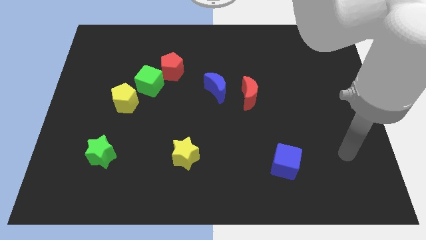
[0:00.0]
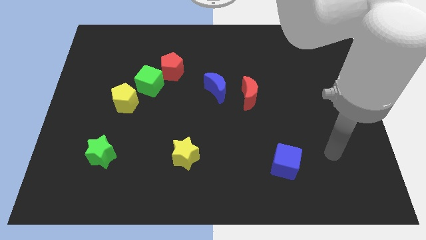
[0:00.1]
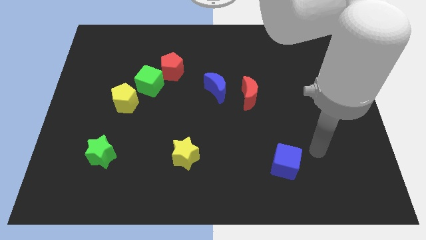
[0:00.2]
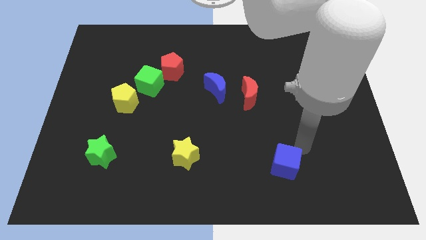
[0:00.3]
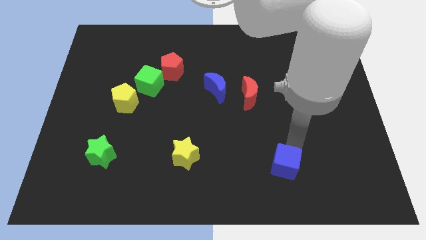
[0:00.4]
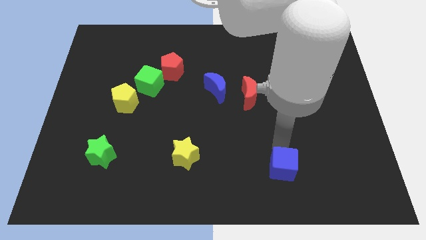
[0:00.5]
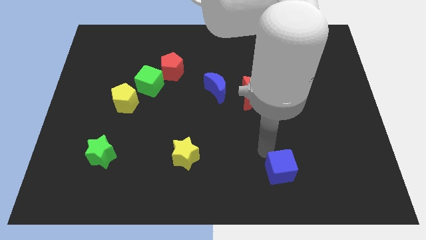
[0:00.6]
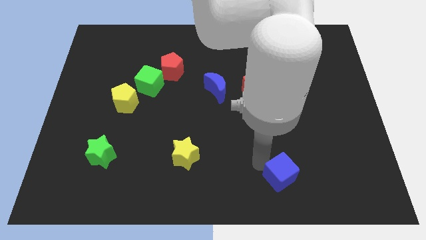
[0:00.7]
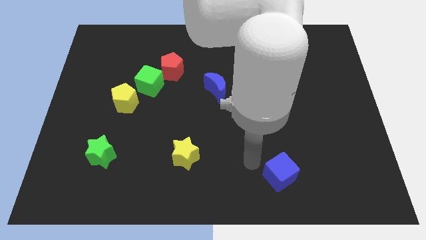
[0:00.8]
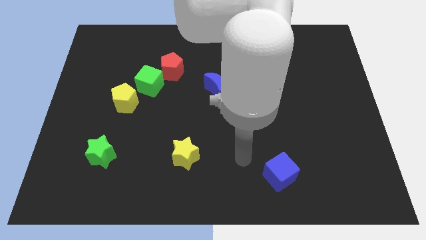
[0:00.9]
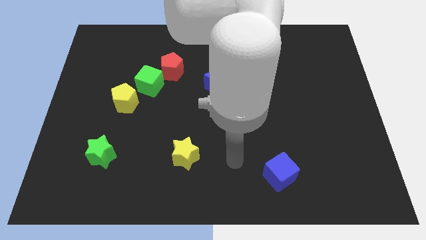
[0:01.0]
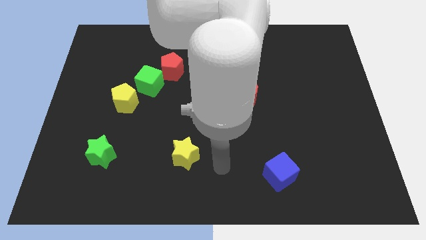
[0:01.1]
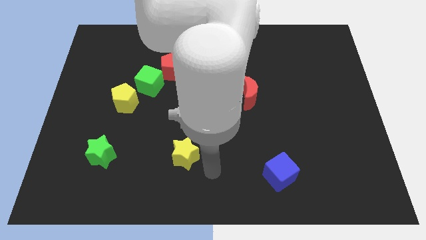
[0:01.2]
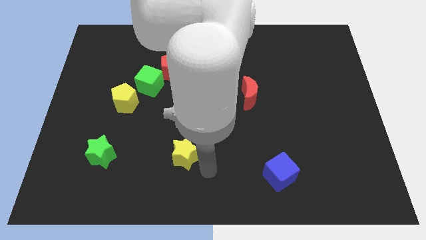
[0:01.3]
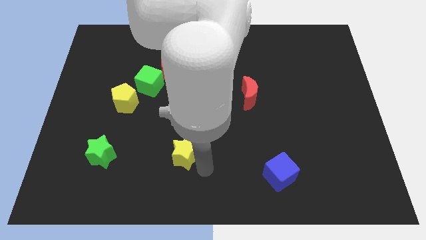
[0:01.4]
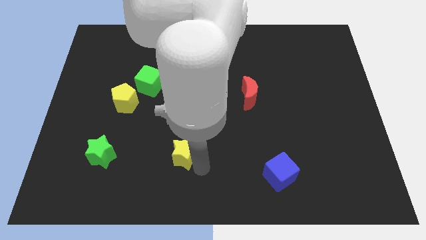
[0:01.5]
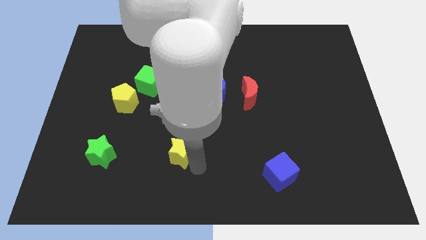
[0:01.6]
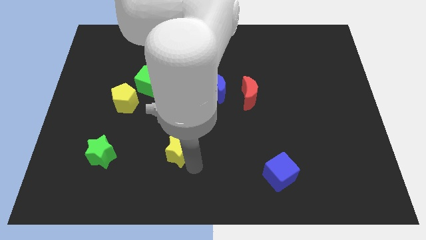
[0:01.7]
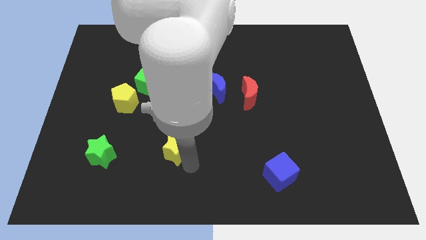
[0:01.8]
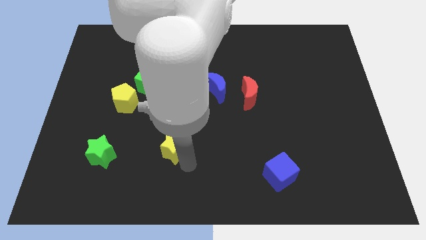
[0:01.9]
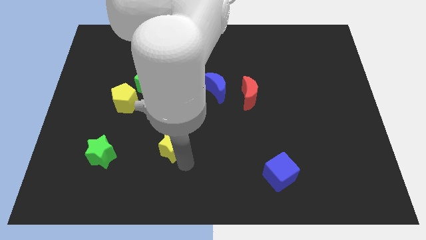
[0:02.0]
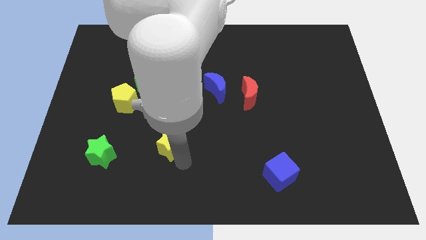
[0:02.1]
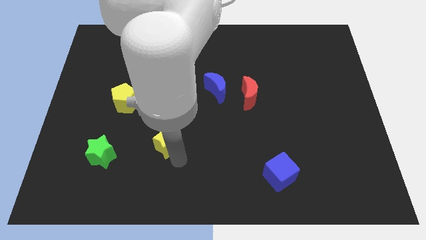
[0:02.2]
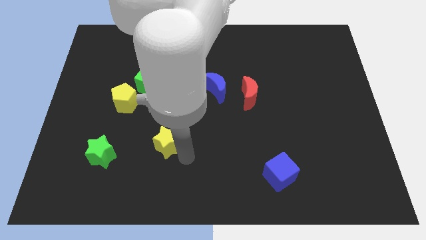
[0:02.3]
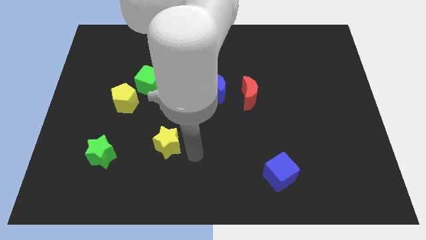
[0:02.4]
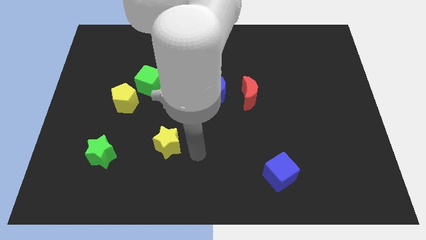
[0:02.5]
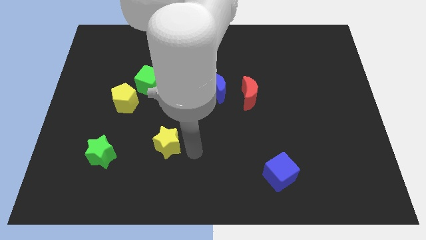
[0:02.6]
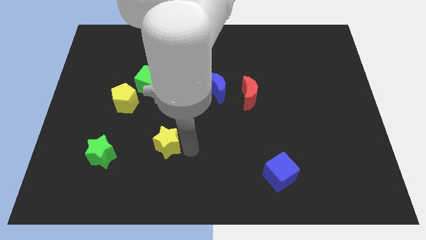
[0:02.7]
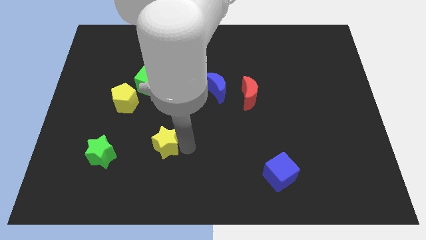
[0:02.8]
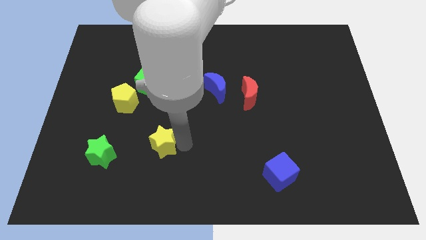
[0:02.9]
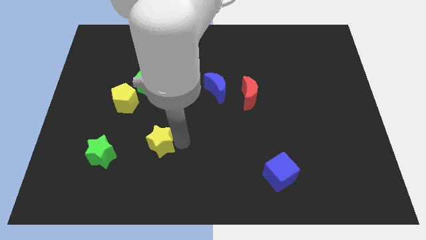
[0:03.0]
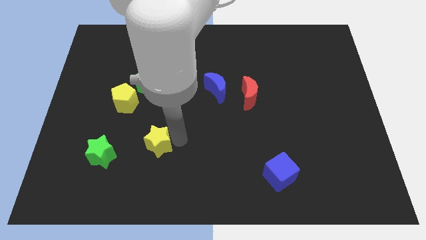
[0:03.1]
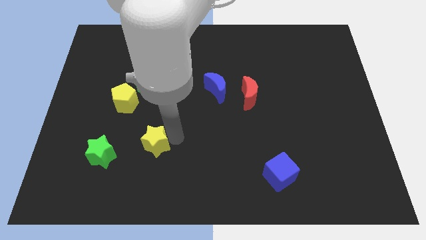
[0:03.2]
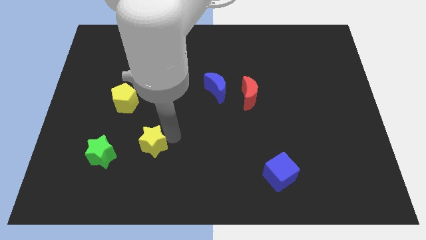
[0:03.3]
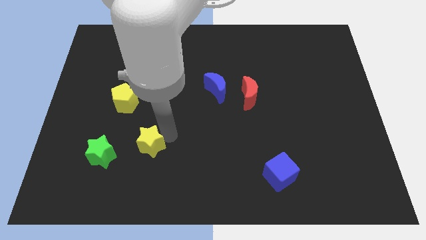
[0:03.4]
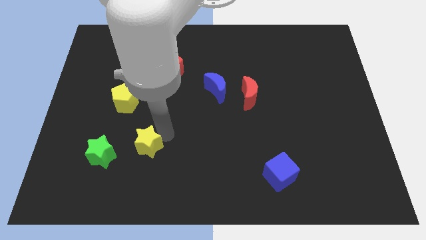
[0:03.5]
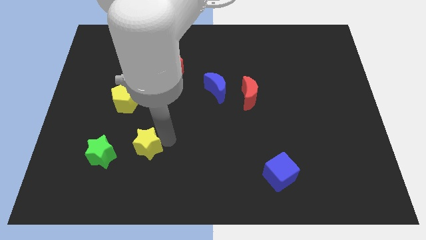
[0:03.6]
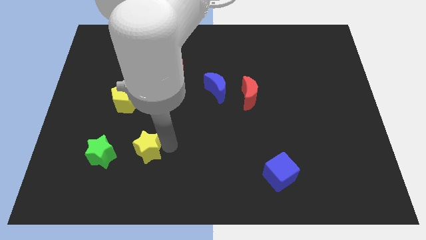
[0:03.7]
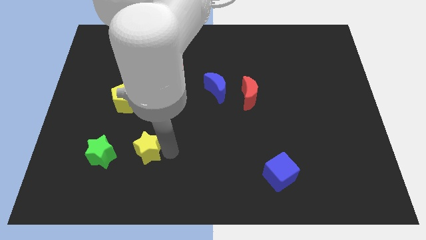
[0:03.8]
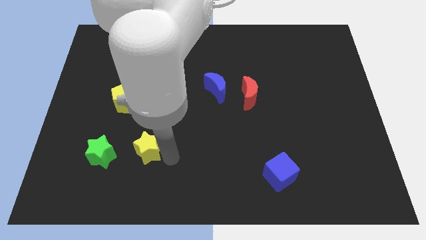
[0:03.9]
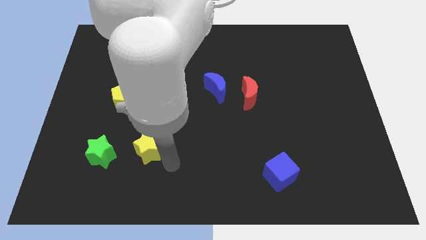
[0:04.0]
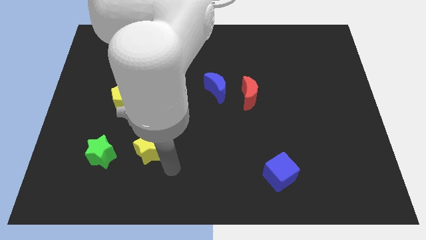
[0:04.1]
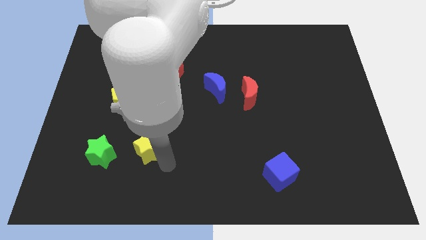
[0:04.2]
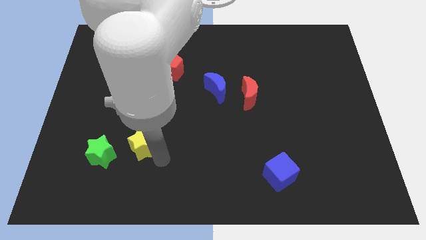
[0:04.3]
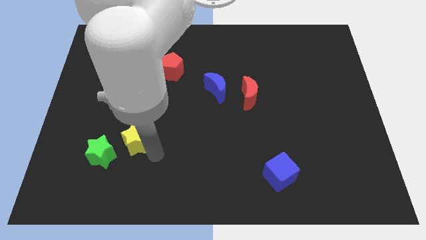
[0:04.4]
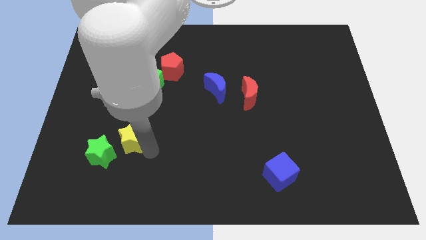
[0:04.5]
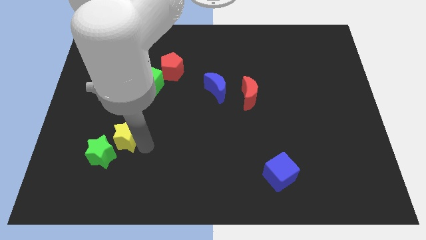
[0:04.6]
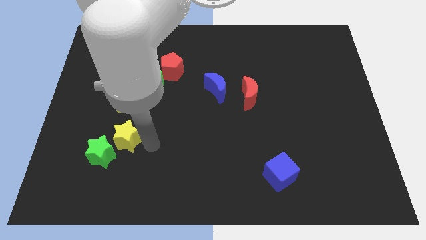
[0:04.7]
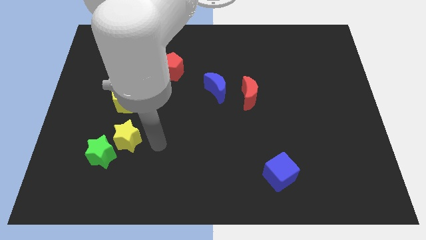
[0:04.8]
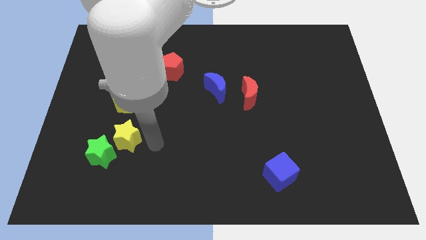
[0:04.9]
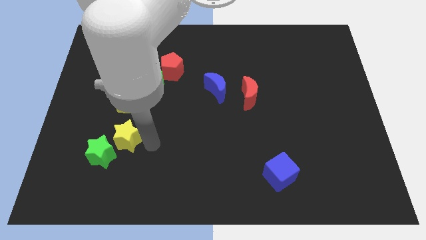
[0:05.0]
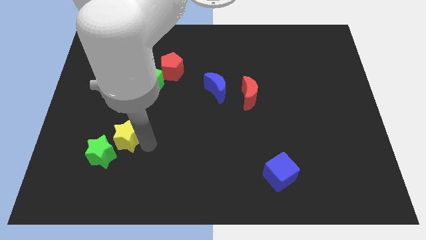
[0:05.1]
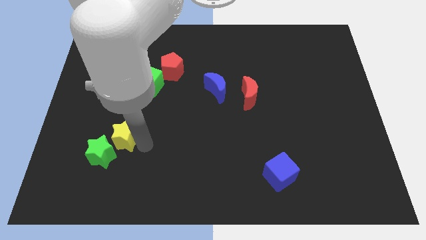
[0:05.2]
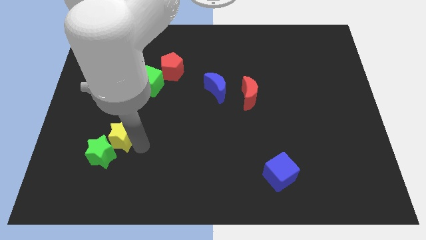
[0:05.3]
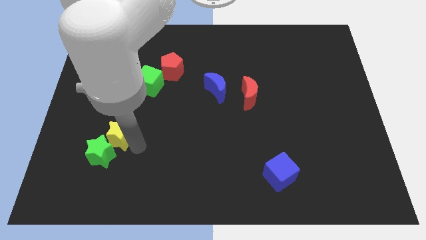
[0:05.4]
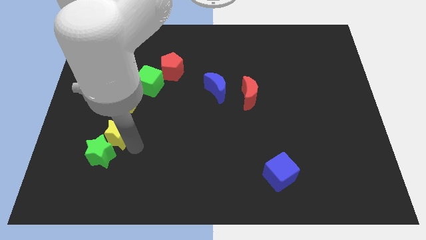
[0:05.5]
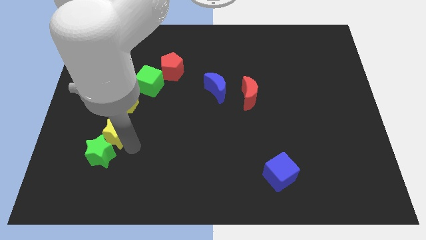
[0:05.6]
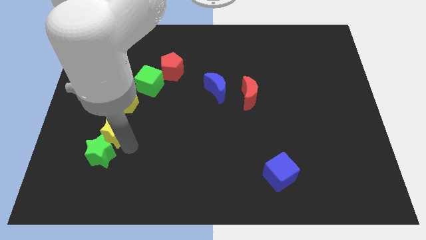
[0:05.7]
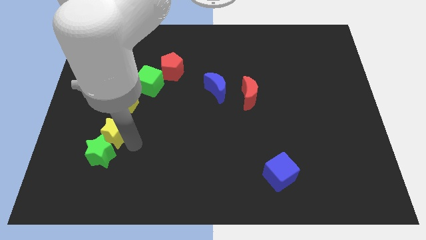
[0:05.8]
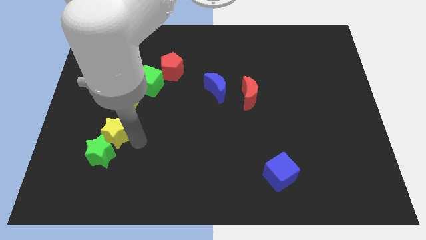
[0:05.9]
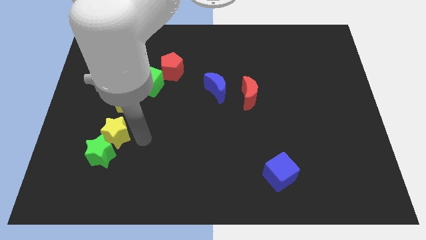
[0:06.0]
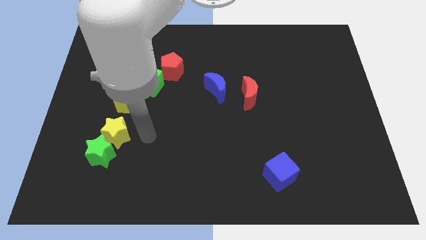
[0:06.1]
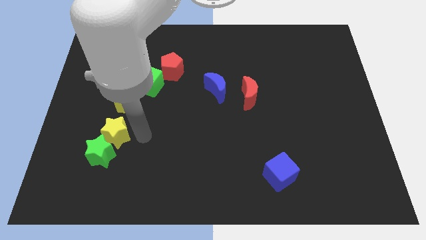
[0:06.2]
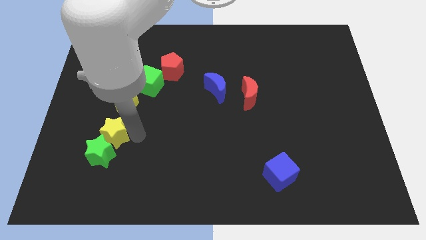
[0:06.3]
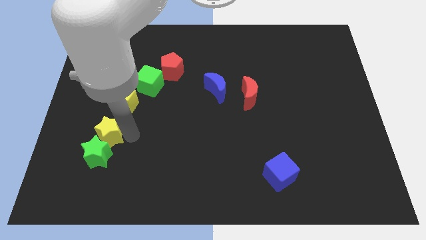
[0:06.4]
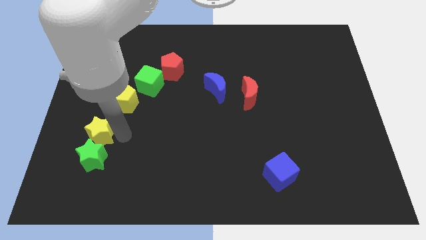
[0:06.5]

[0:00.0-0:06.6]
put the yellow star to the top left of the green star
